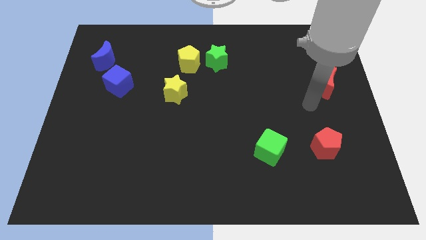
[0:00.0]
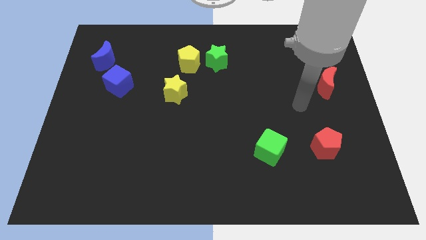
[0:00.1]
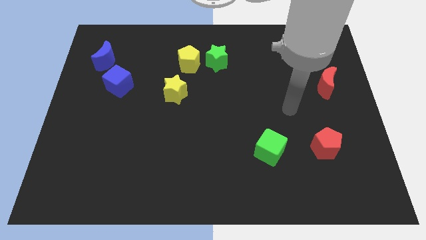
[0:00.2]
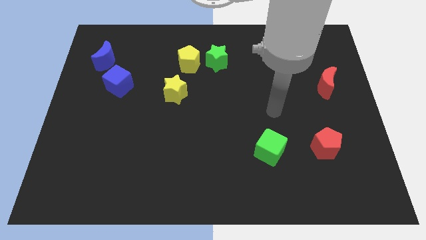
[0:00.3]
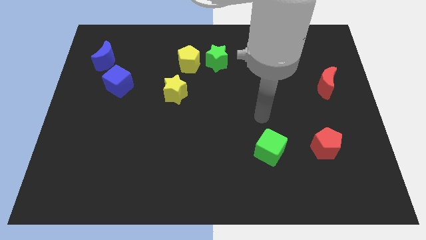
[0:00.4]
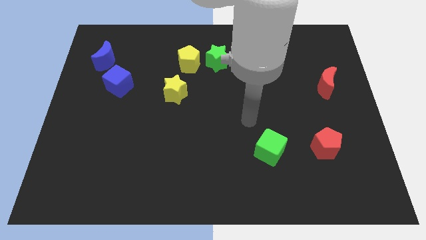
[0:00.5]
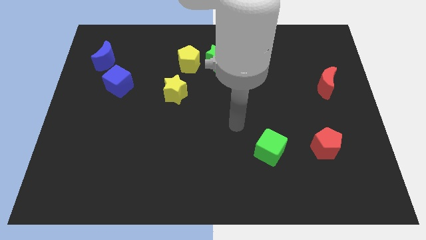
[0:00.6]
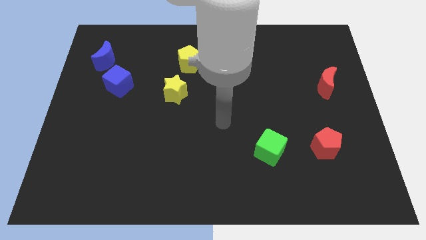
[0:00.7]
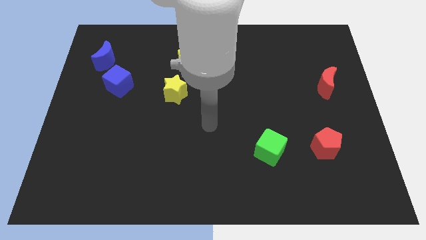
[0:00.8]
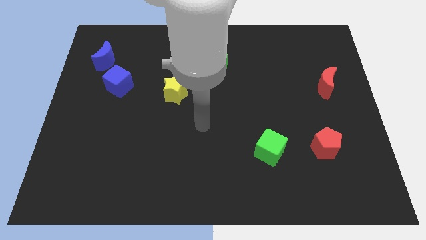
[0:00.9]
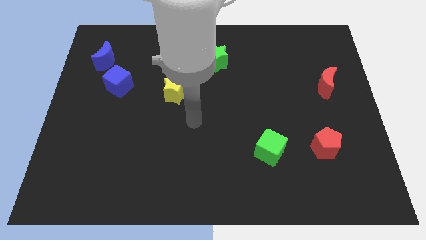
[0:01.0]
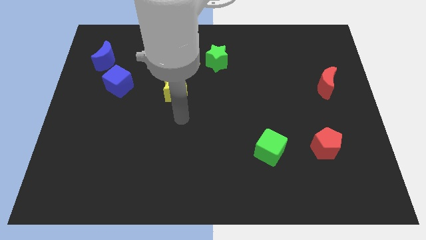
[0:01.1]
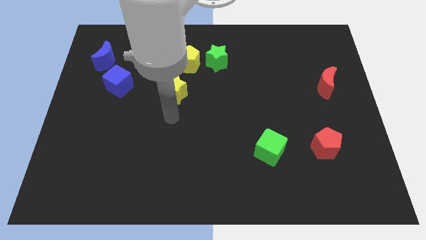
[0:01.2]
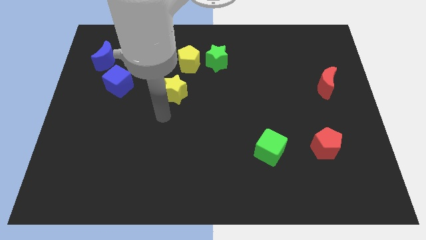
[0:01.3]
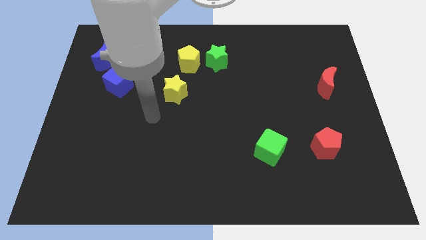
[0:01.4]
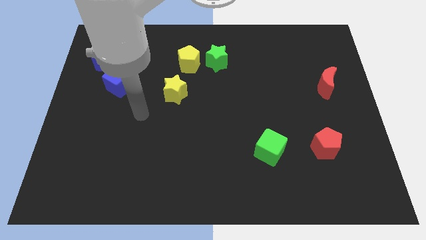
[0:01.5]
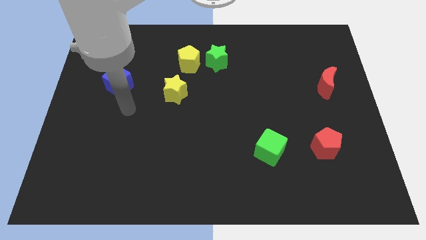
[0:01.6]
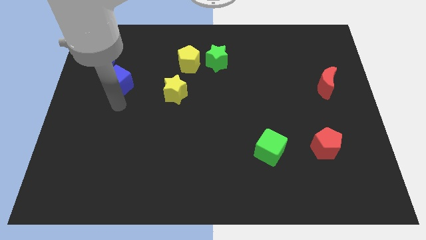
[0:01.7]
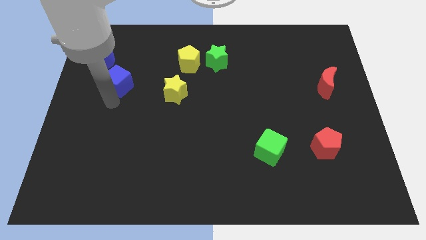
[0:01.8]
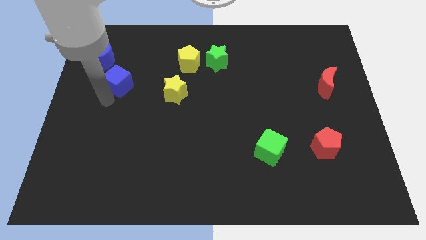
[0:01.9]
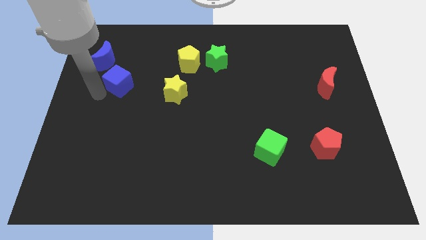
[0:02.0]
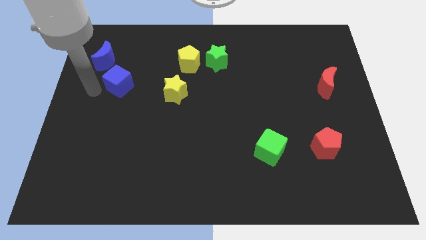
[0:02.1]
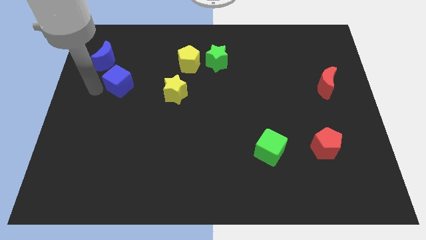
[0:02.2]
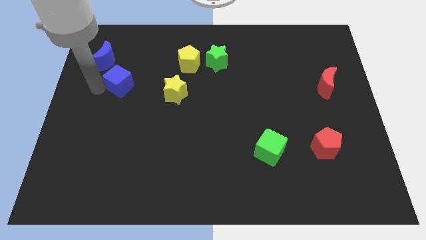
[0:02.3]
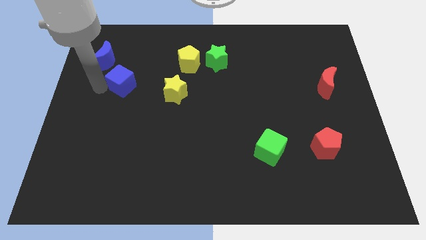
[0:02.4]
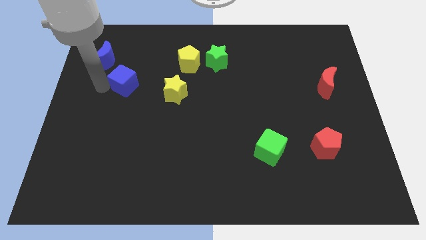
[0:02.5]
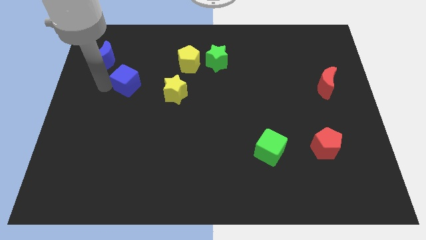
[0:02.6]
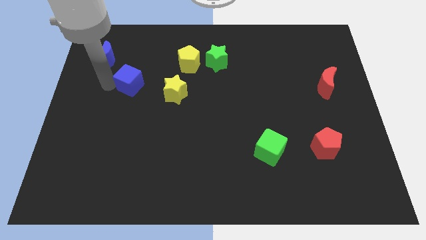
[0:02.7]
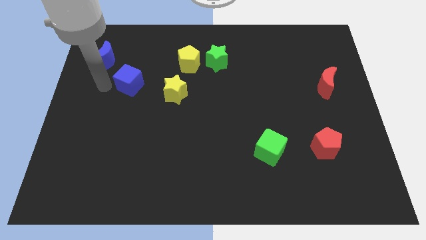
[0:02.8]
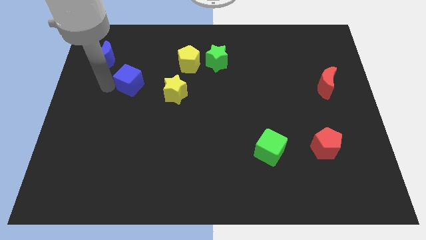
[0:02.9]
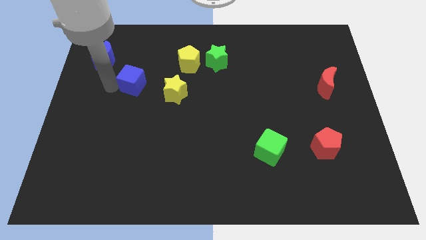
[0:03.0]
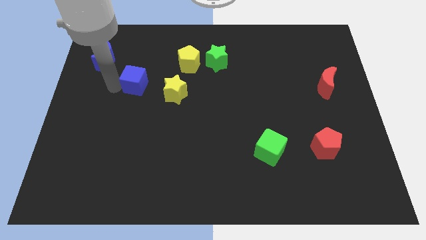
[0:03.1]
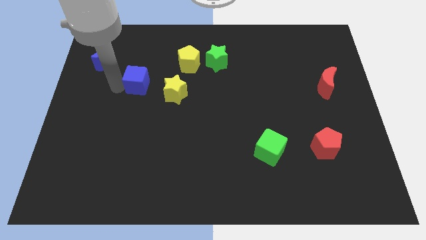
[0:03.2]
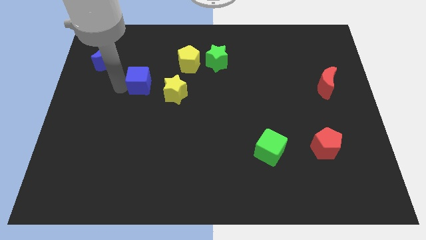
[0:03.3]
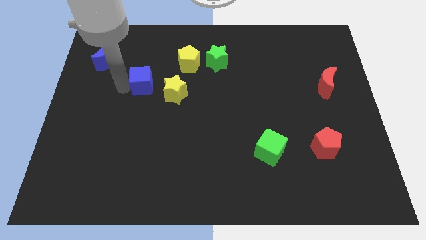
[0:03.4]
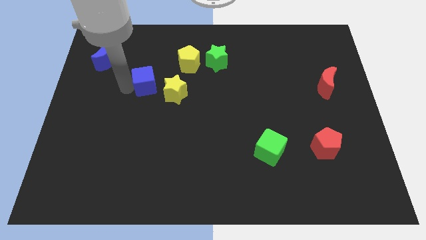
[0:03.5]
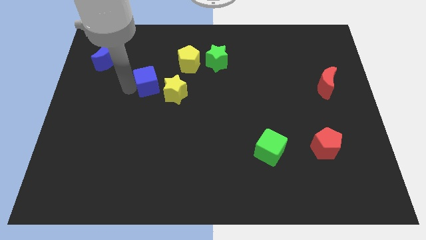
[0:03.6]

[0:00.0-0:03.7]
move the blue cube right somewhat

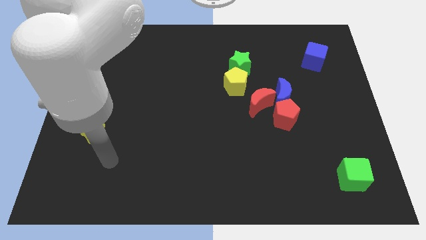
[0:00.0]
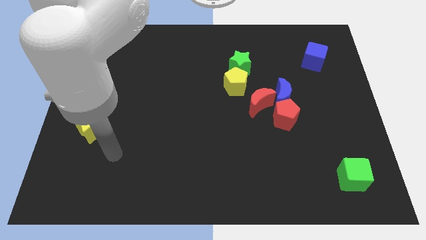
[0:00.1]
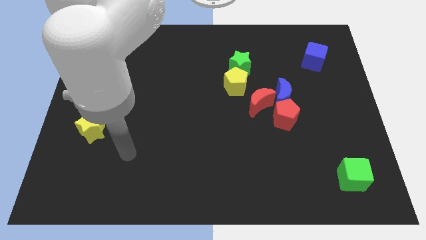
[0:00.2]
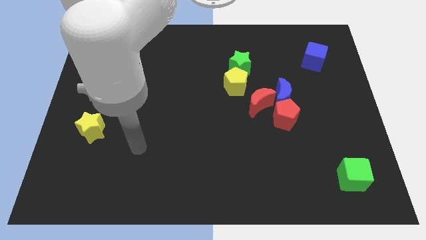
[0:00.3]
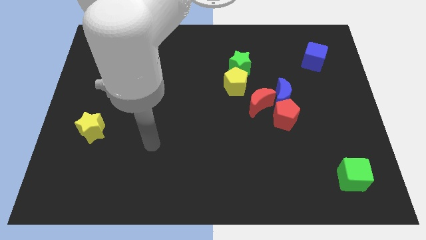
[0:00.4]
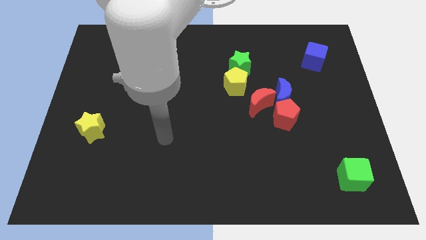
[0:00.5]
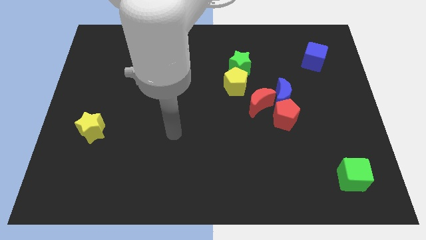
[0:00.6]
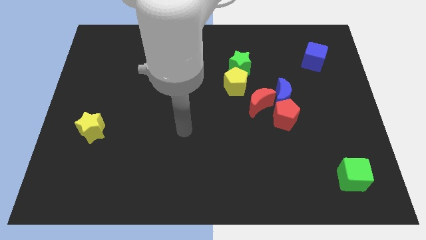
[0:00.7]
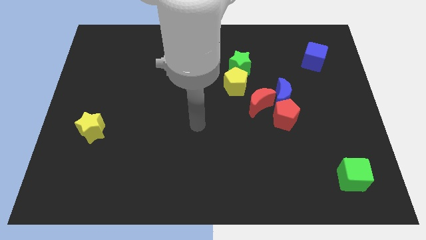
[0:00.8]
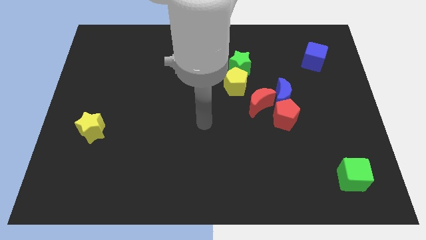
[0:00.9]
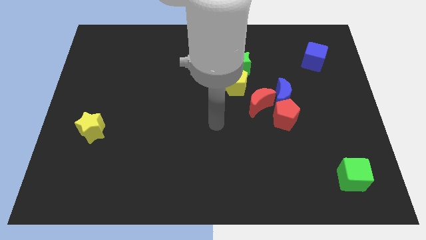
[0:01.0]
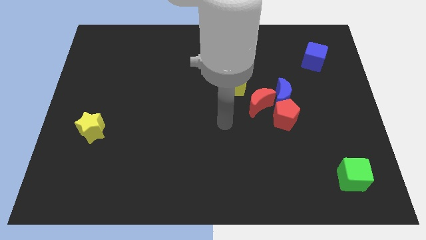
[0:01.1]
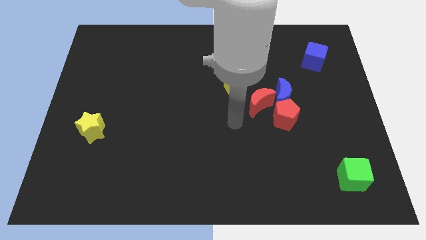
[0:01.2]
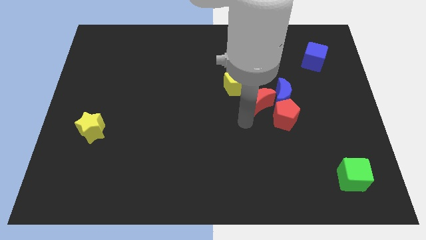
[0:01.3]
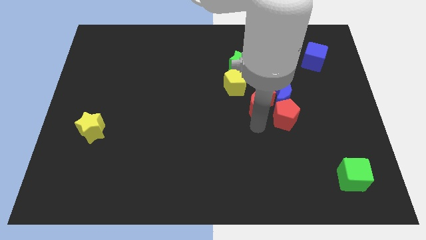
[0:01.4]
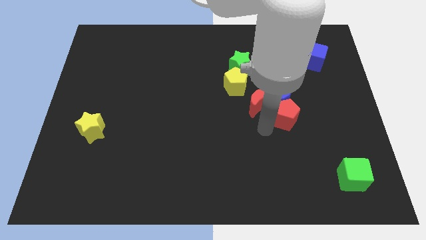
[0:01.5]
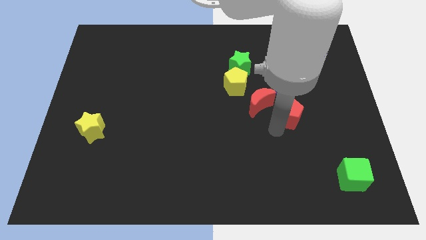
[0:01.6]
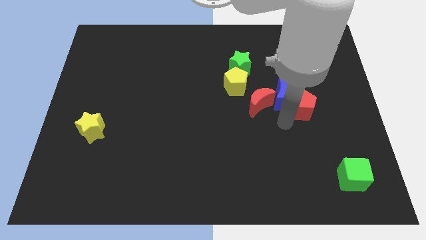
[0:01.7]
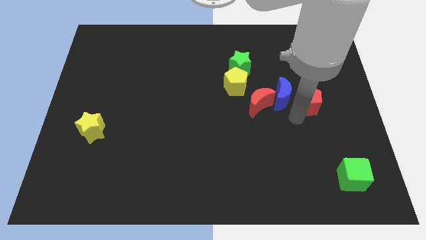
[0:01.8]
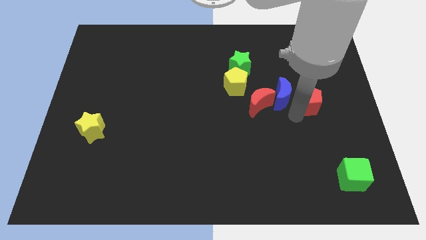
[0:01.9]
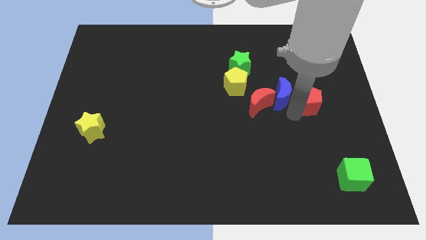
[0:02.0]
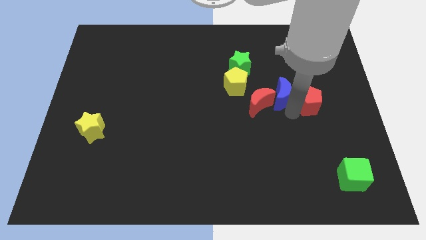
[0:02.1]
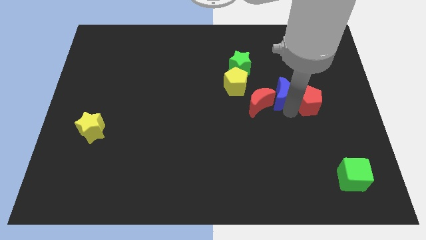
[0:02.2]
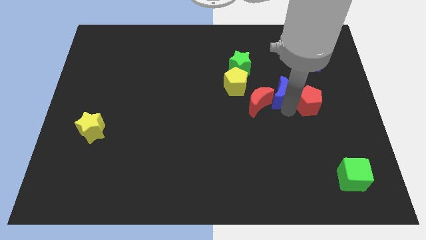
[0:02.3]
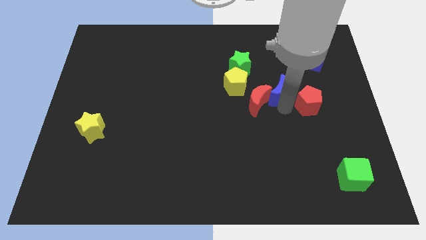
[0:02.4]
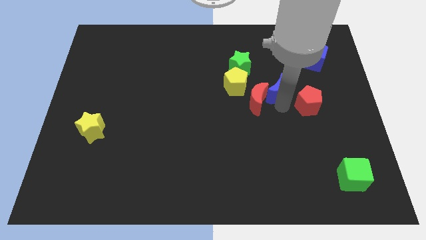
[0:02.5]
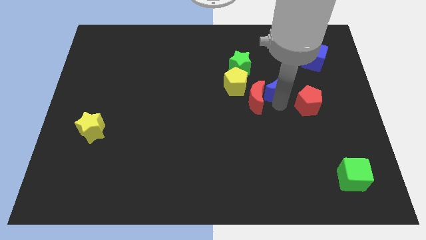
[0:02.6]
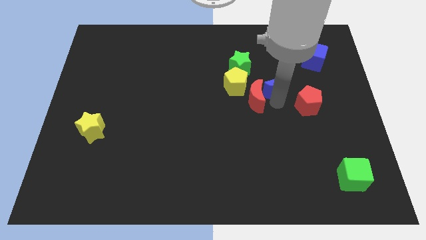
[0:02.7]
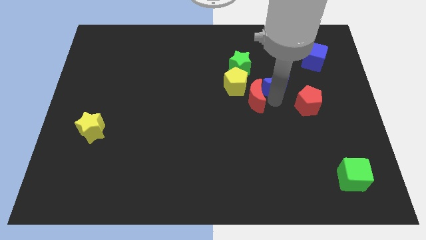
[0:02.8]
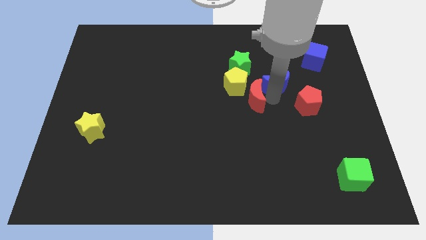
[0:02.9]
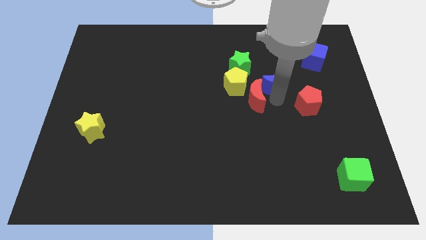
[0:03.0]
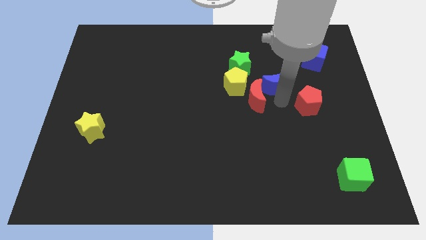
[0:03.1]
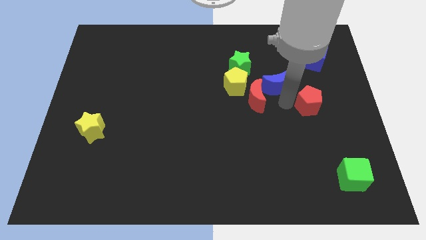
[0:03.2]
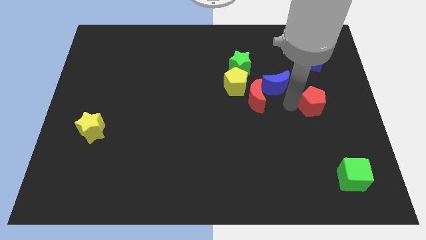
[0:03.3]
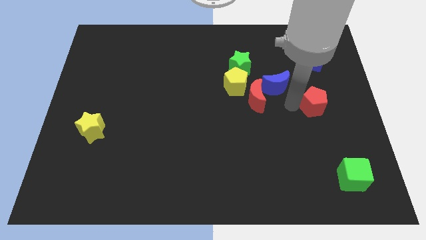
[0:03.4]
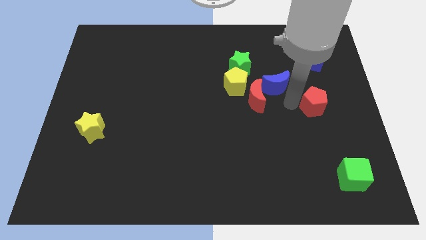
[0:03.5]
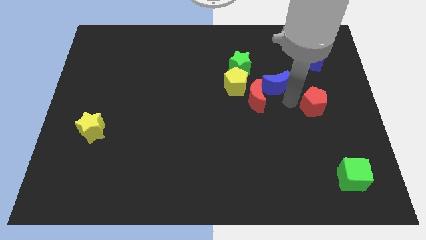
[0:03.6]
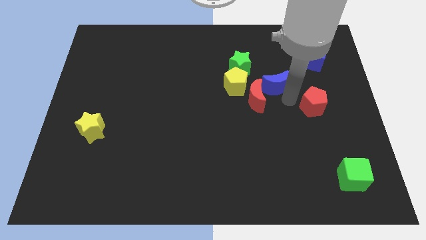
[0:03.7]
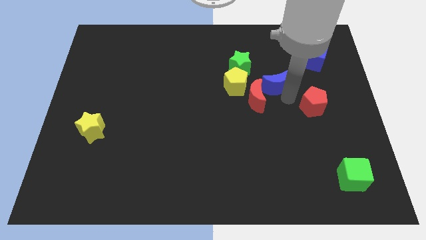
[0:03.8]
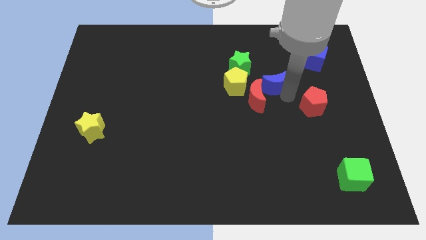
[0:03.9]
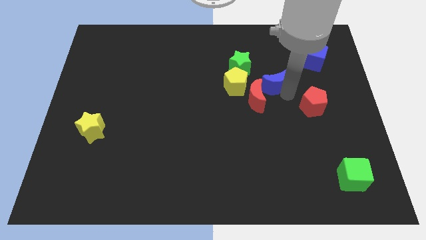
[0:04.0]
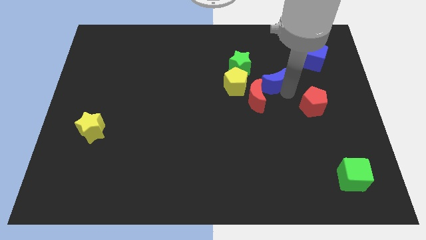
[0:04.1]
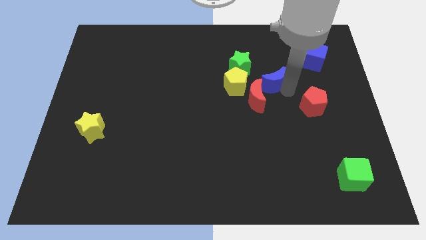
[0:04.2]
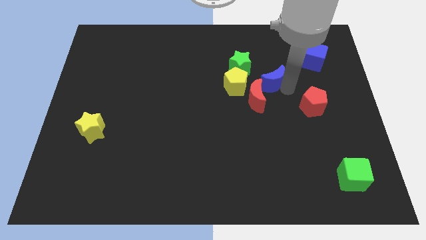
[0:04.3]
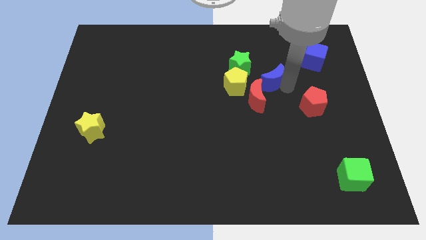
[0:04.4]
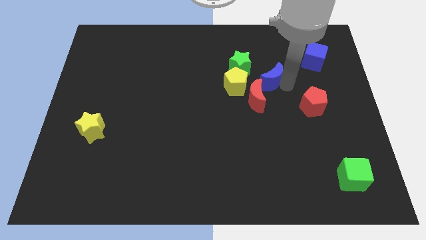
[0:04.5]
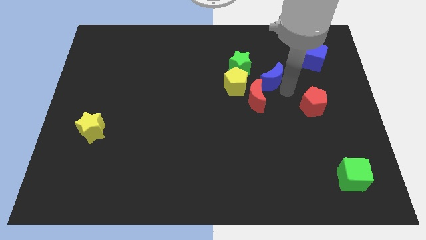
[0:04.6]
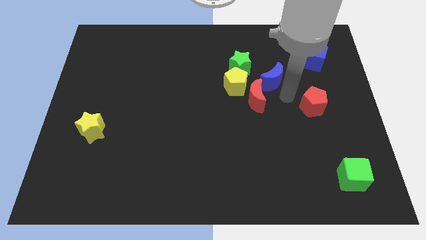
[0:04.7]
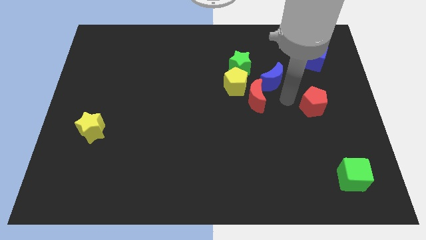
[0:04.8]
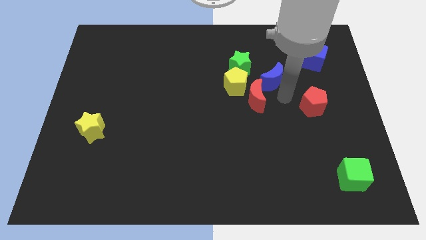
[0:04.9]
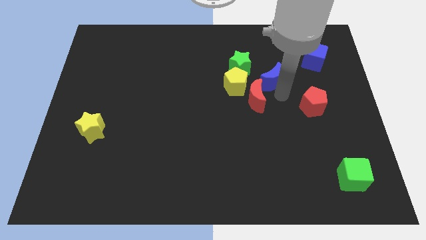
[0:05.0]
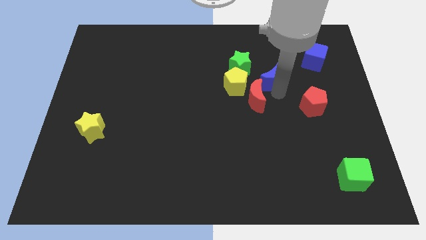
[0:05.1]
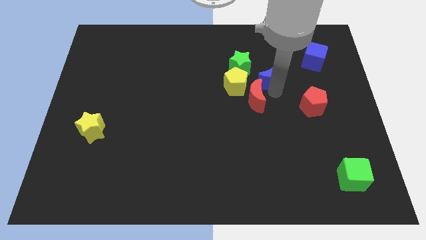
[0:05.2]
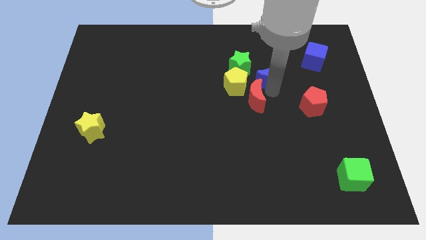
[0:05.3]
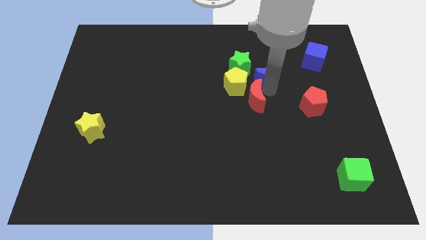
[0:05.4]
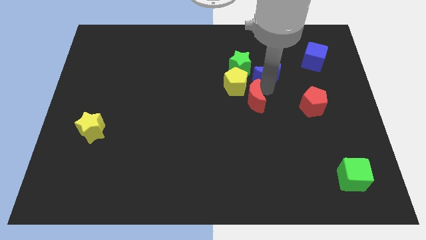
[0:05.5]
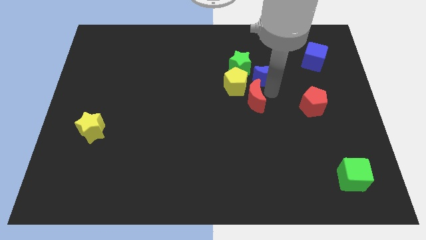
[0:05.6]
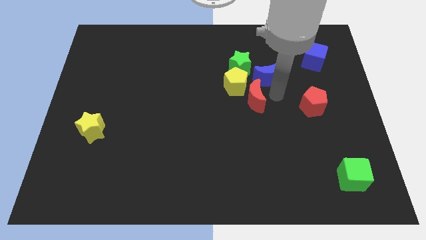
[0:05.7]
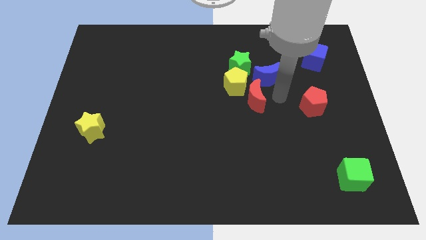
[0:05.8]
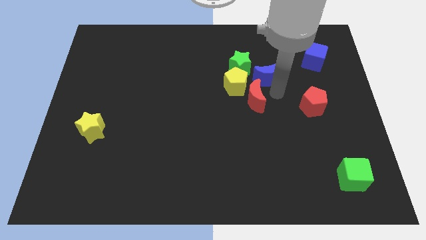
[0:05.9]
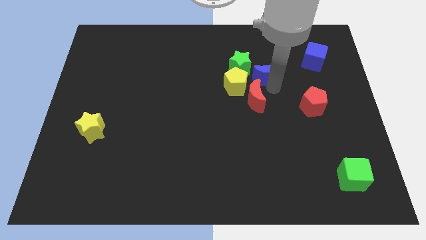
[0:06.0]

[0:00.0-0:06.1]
move the blue moon up and then to the left a little bit
